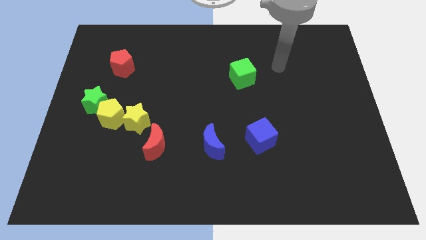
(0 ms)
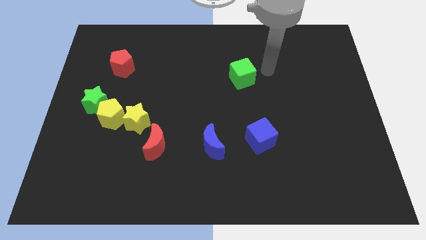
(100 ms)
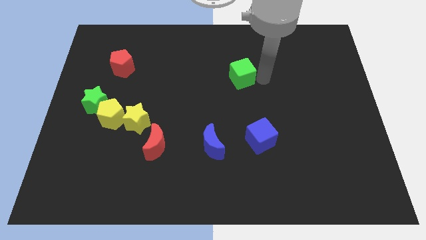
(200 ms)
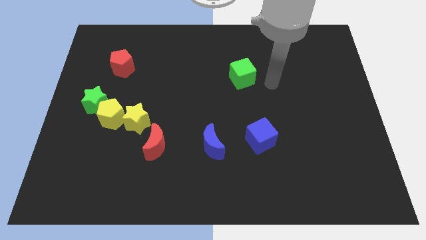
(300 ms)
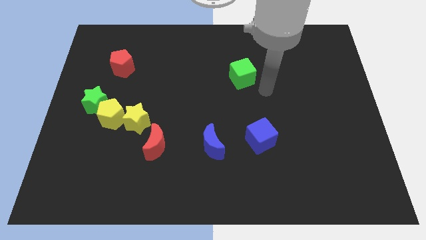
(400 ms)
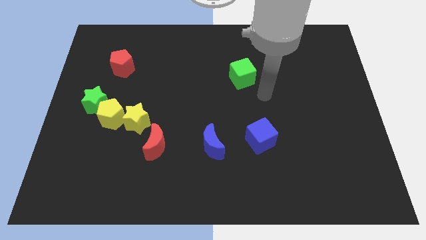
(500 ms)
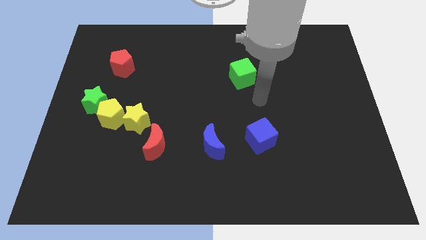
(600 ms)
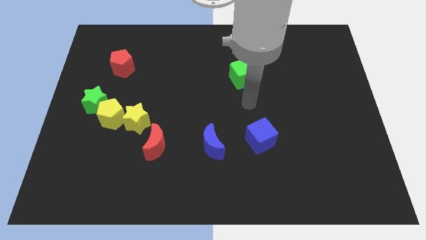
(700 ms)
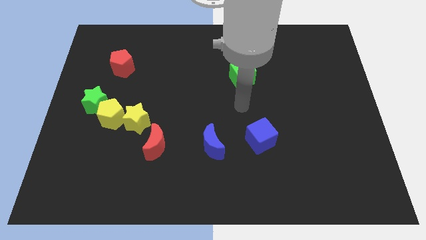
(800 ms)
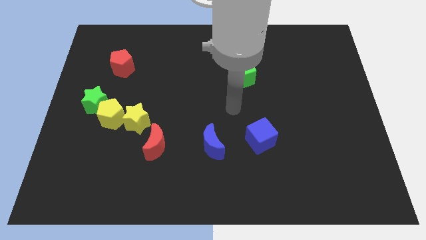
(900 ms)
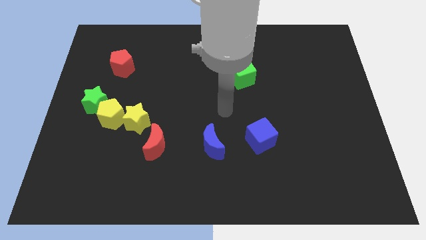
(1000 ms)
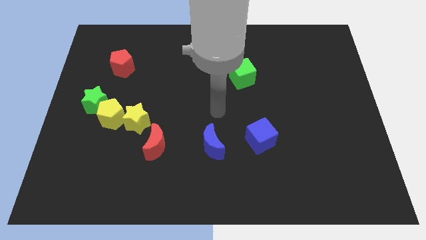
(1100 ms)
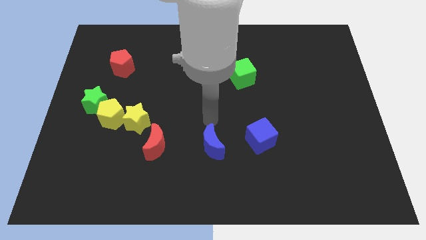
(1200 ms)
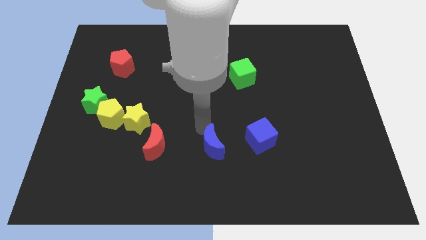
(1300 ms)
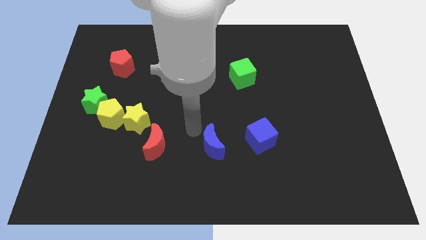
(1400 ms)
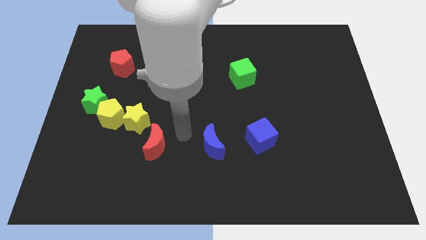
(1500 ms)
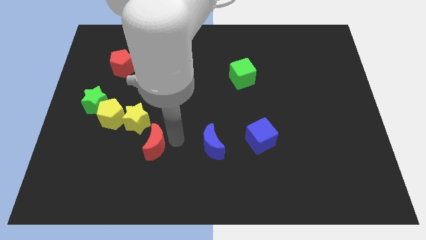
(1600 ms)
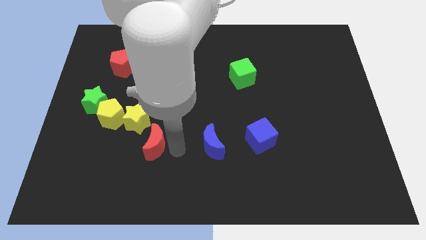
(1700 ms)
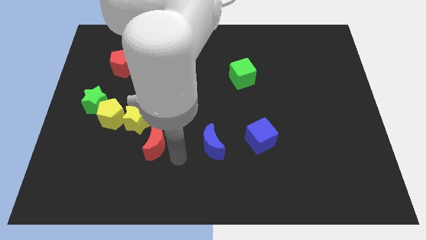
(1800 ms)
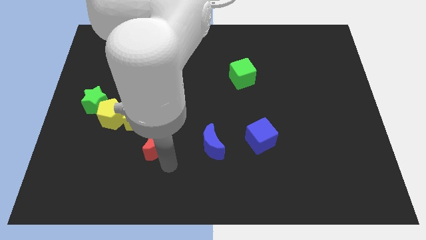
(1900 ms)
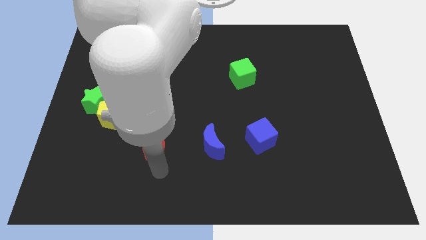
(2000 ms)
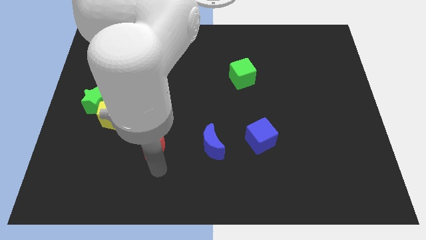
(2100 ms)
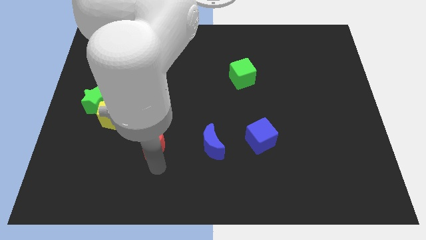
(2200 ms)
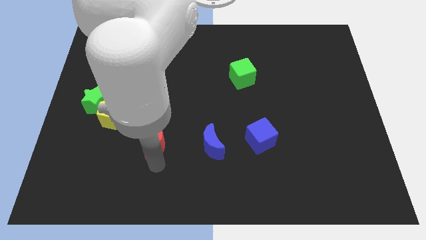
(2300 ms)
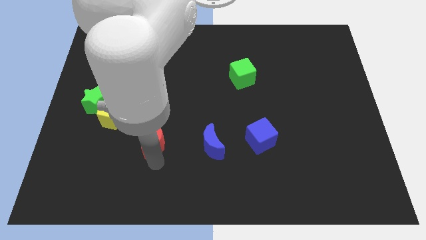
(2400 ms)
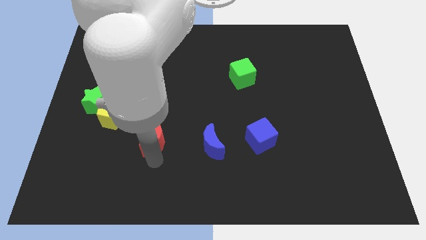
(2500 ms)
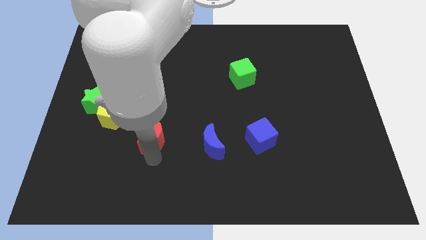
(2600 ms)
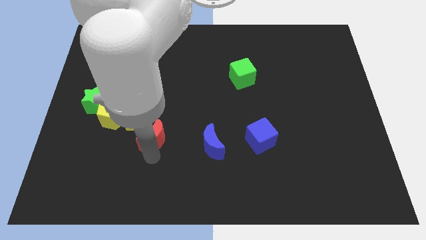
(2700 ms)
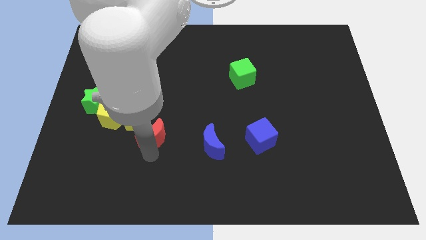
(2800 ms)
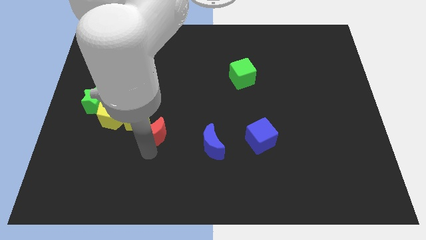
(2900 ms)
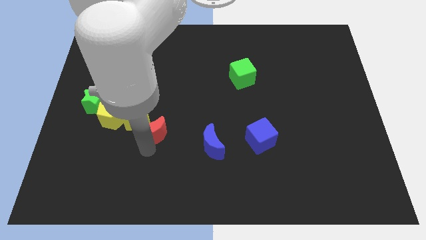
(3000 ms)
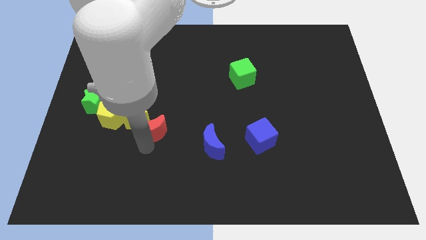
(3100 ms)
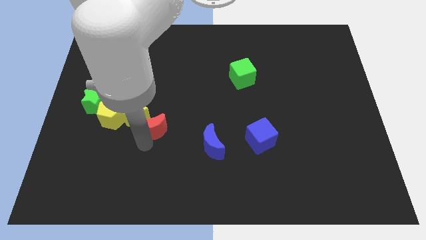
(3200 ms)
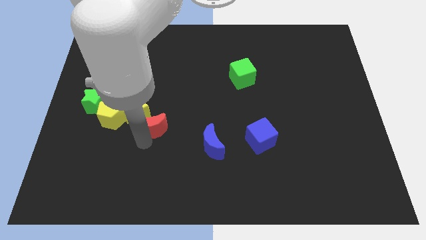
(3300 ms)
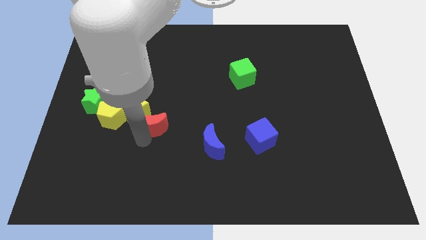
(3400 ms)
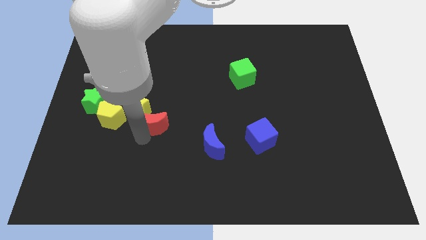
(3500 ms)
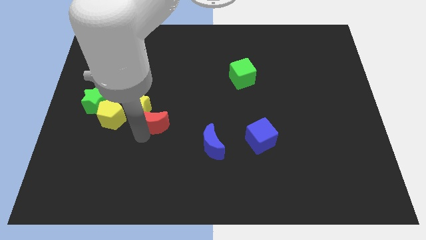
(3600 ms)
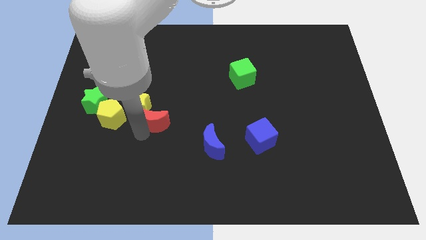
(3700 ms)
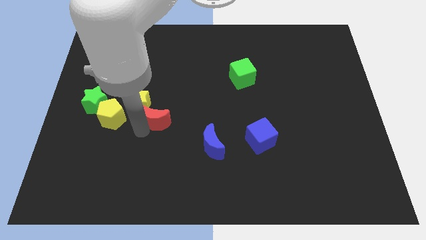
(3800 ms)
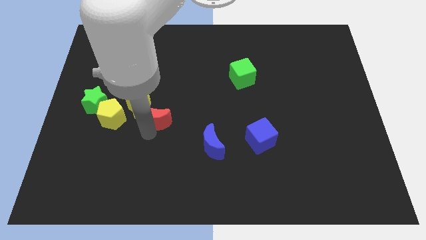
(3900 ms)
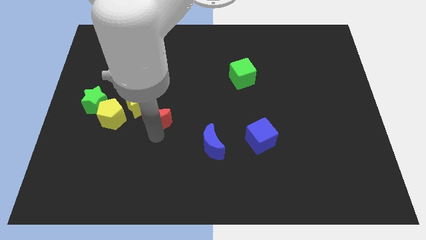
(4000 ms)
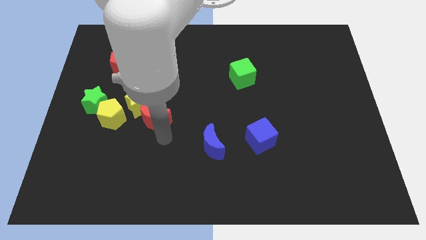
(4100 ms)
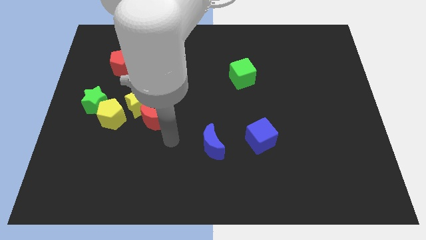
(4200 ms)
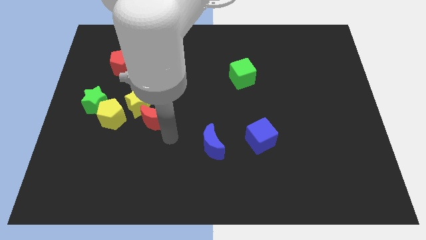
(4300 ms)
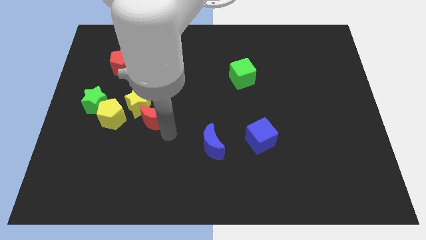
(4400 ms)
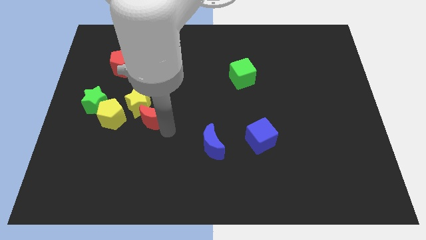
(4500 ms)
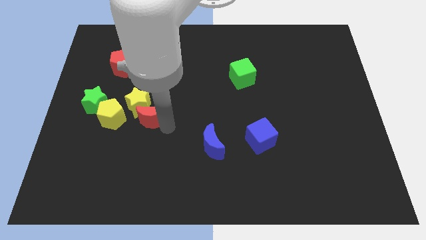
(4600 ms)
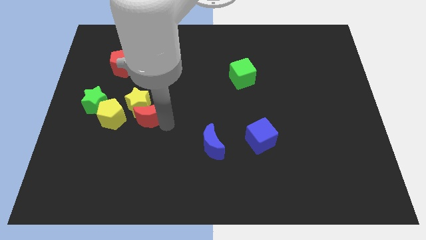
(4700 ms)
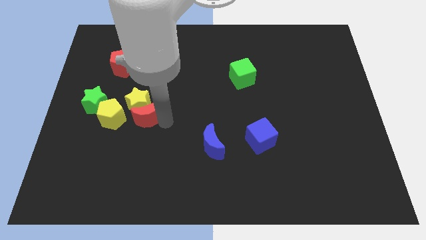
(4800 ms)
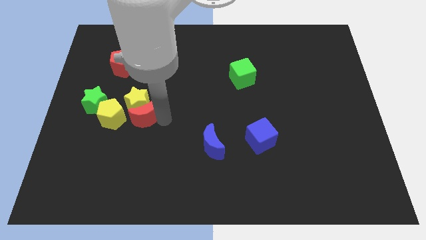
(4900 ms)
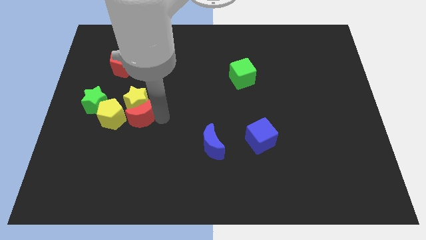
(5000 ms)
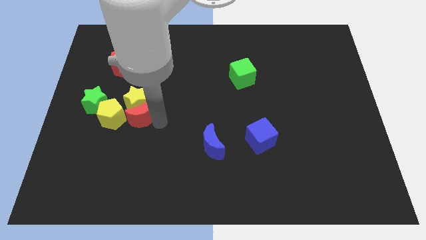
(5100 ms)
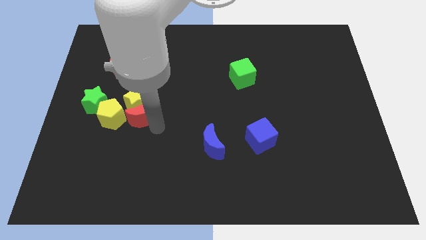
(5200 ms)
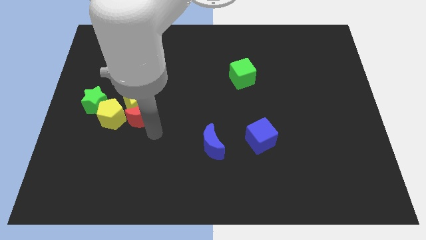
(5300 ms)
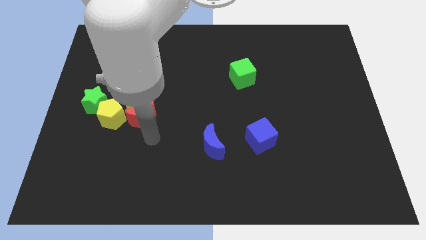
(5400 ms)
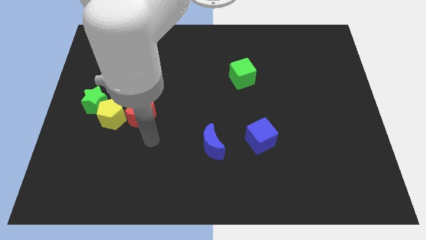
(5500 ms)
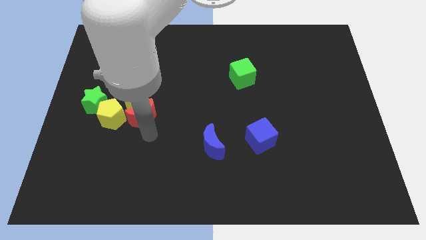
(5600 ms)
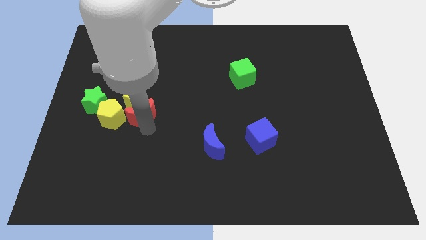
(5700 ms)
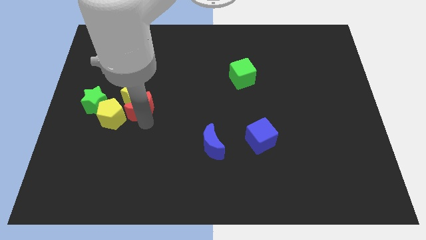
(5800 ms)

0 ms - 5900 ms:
slide the red moon diagonally up and to the right of the yellow pentagon

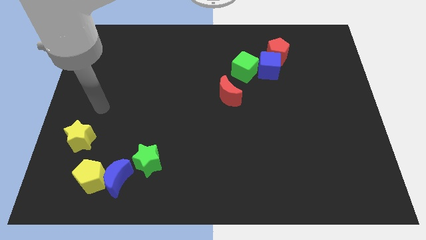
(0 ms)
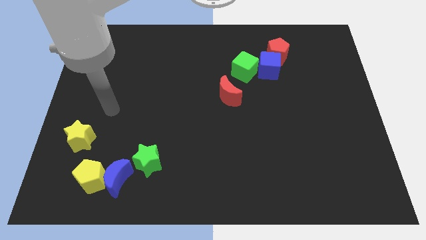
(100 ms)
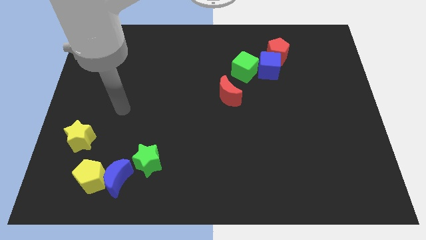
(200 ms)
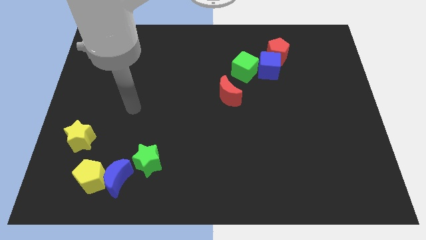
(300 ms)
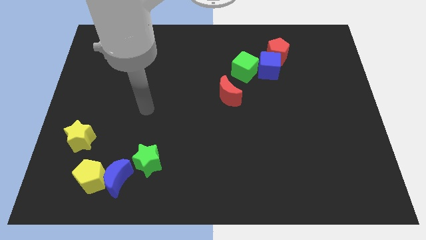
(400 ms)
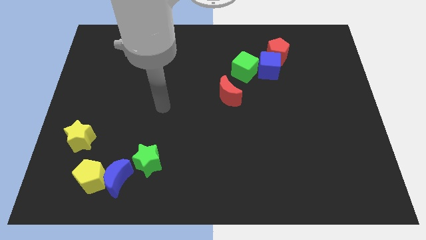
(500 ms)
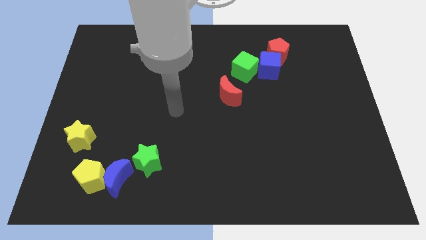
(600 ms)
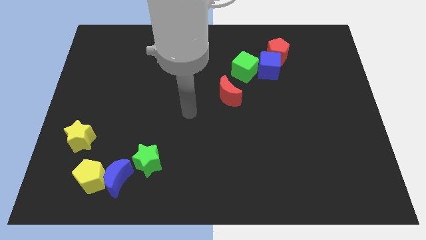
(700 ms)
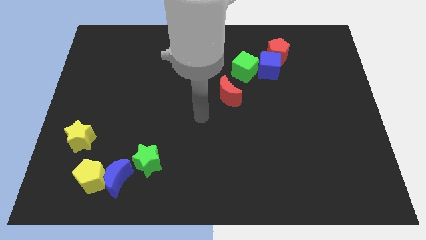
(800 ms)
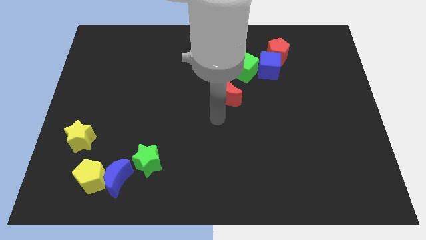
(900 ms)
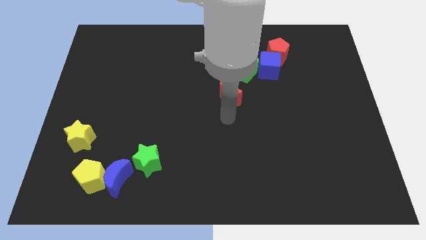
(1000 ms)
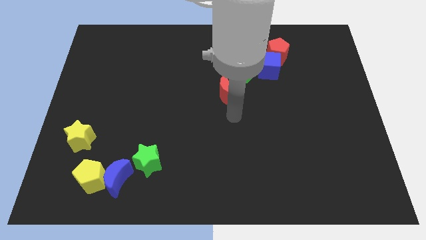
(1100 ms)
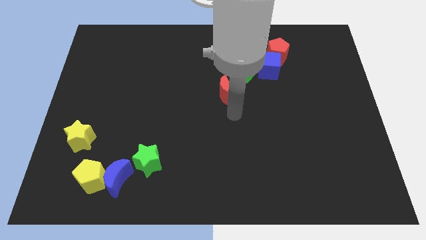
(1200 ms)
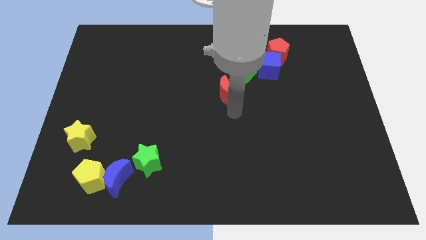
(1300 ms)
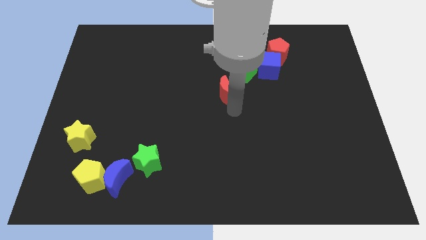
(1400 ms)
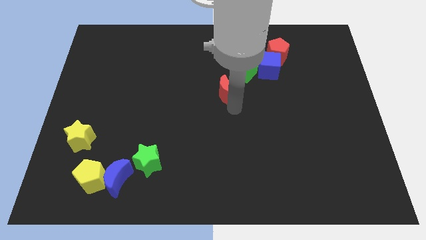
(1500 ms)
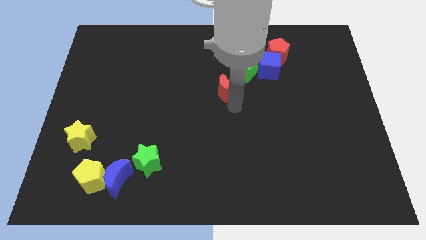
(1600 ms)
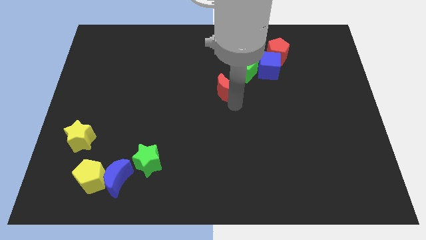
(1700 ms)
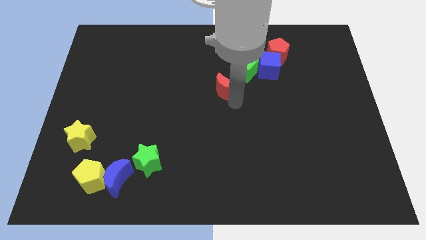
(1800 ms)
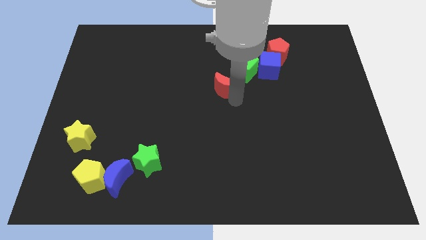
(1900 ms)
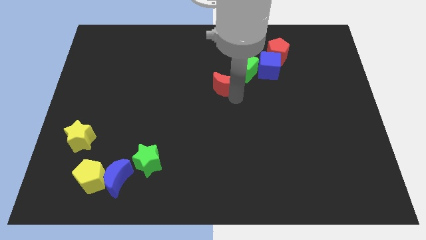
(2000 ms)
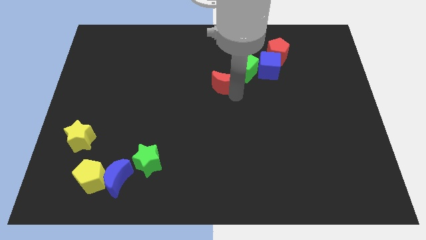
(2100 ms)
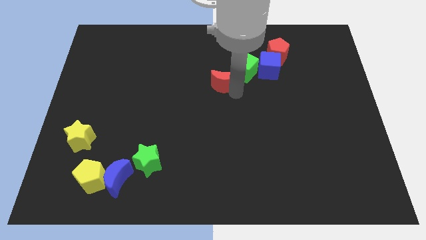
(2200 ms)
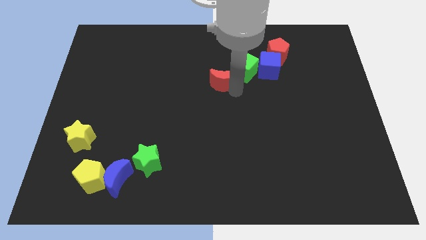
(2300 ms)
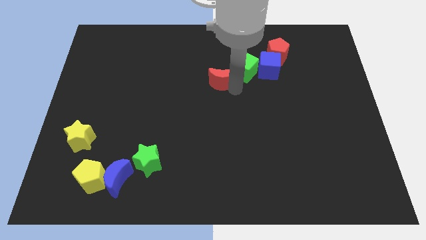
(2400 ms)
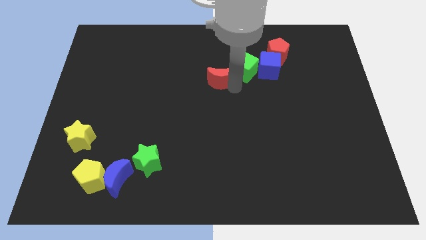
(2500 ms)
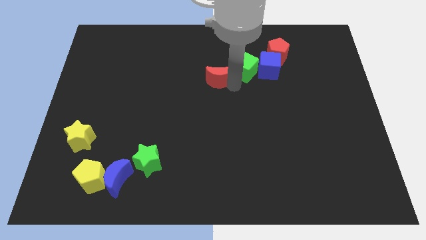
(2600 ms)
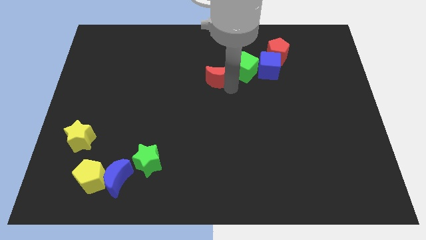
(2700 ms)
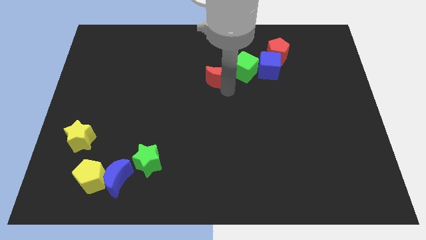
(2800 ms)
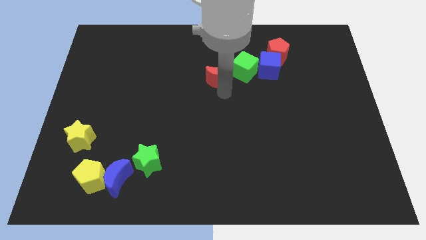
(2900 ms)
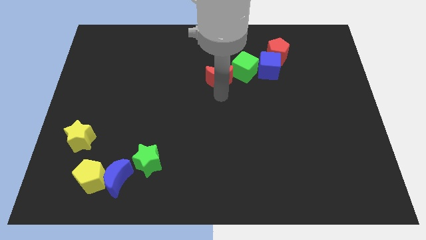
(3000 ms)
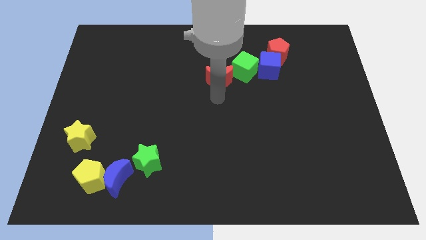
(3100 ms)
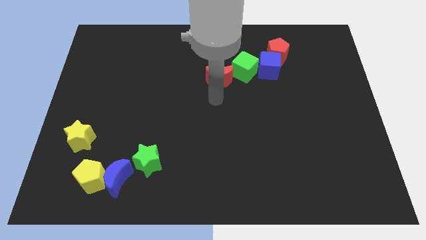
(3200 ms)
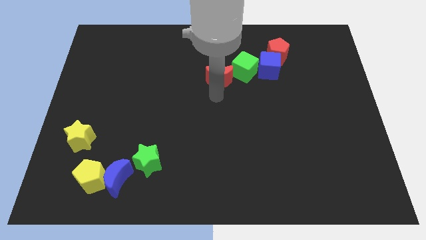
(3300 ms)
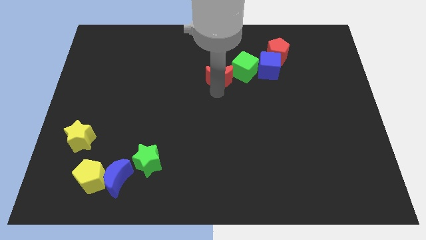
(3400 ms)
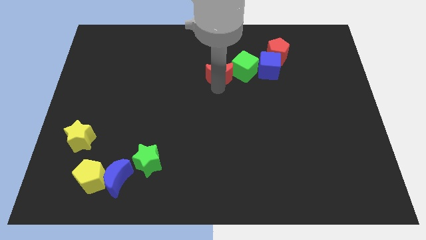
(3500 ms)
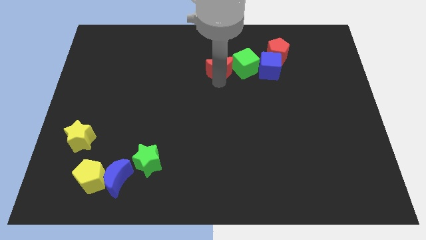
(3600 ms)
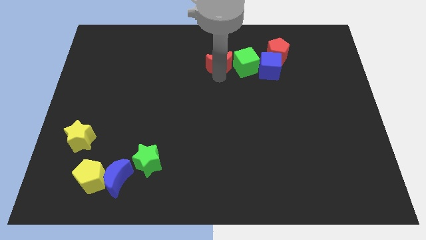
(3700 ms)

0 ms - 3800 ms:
put the red moon diagonally up and to the left of the green cube
